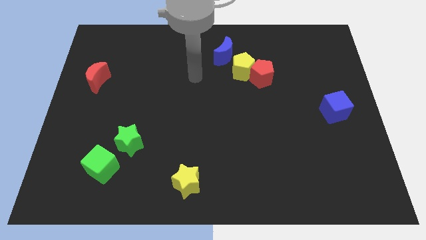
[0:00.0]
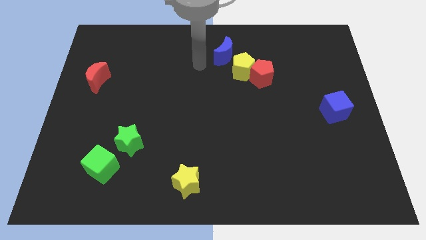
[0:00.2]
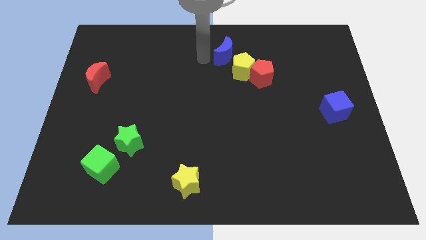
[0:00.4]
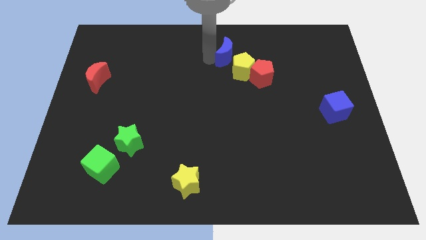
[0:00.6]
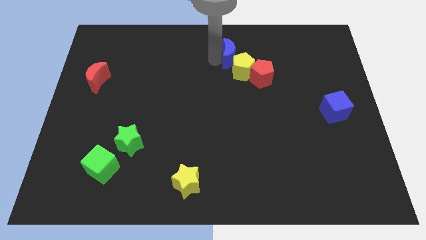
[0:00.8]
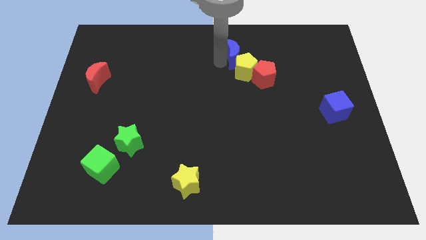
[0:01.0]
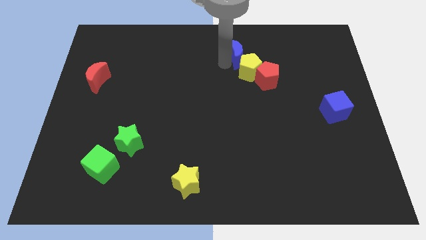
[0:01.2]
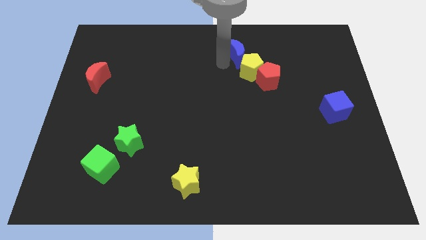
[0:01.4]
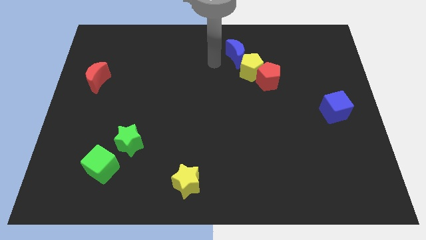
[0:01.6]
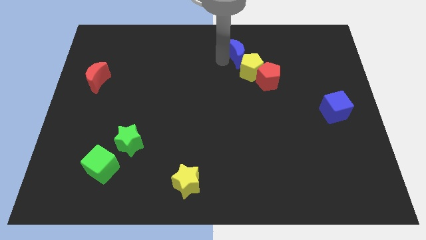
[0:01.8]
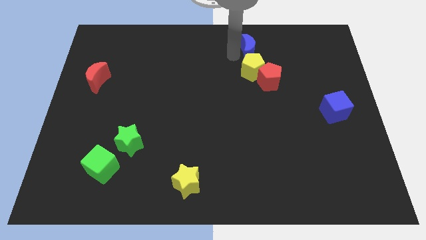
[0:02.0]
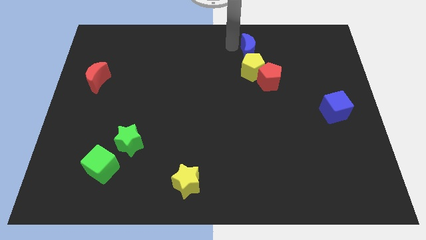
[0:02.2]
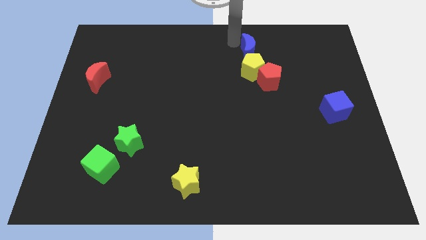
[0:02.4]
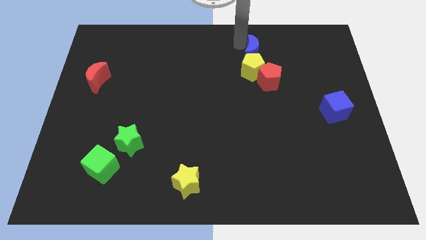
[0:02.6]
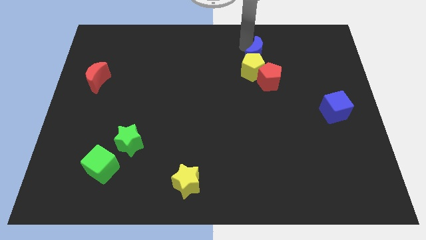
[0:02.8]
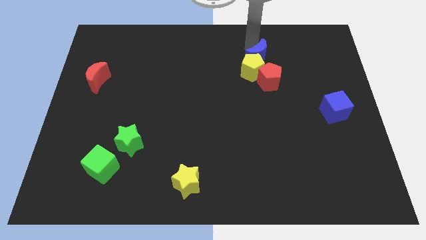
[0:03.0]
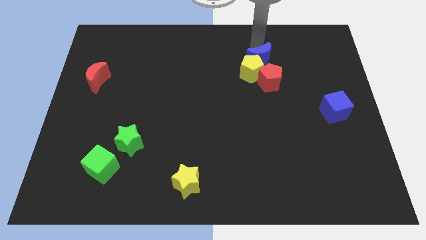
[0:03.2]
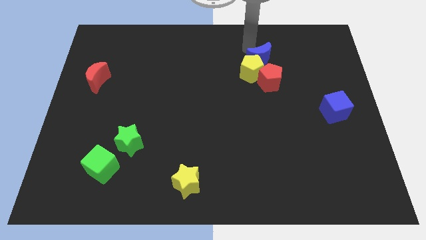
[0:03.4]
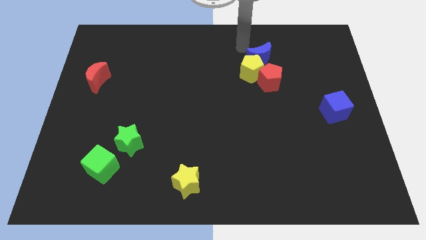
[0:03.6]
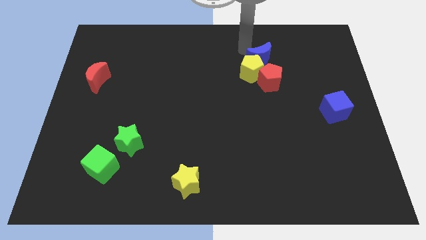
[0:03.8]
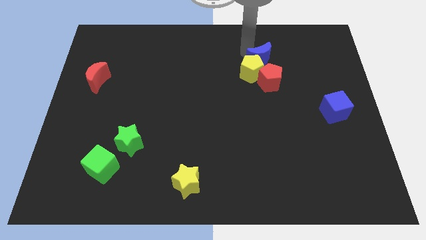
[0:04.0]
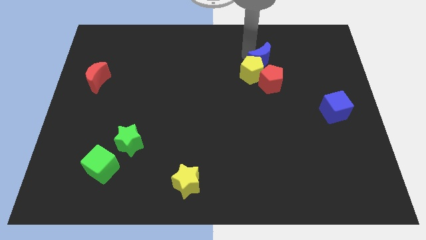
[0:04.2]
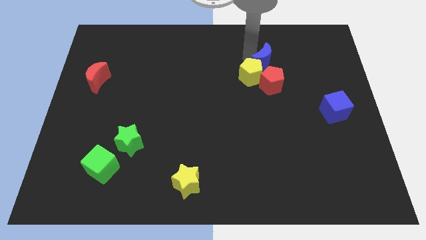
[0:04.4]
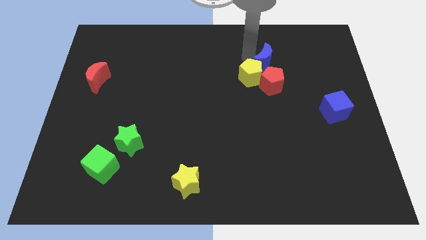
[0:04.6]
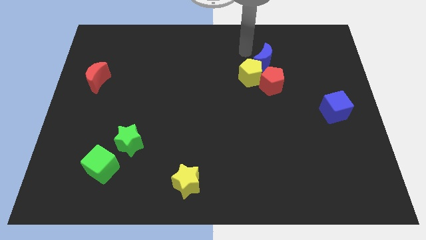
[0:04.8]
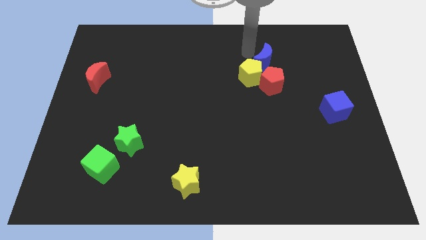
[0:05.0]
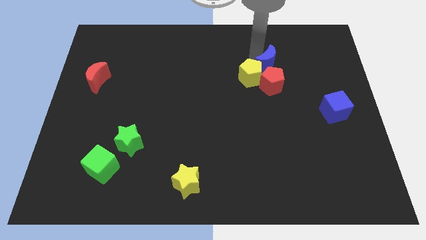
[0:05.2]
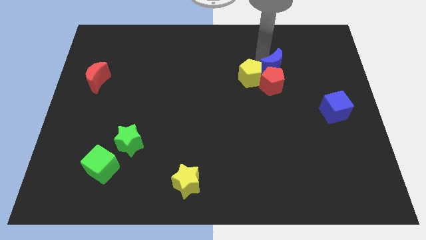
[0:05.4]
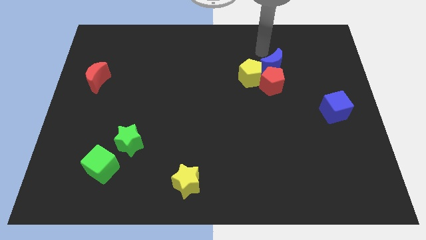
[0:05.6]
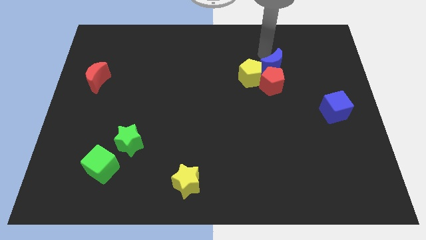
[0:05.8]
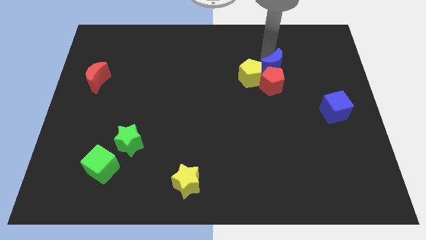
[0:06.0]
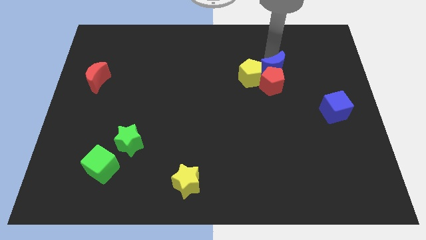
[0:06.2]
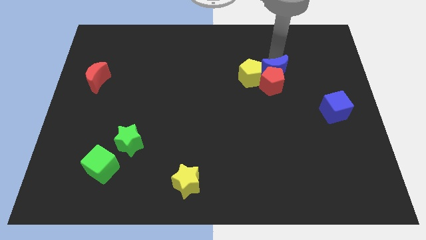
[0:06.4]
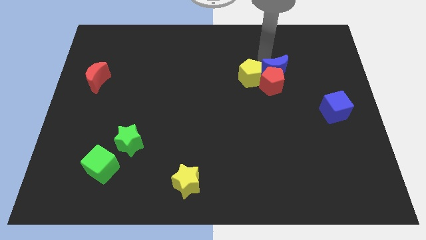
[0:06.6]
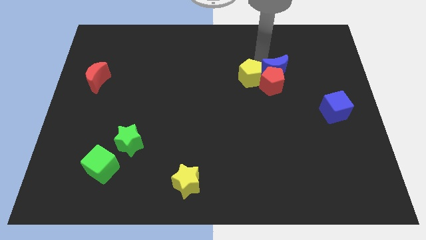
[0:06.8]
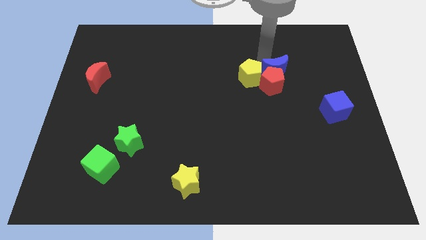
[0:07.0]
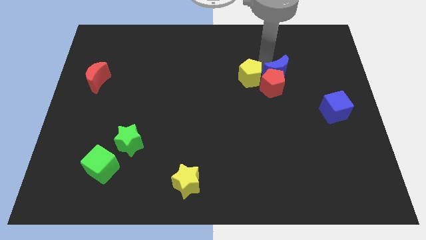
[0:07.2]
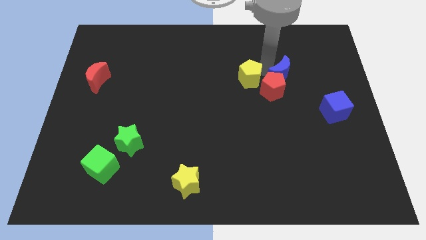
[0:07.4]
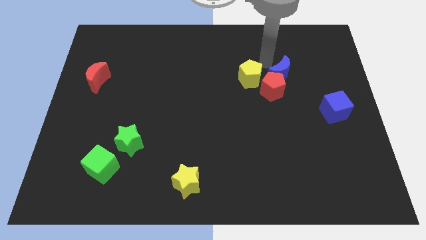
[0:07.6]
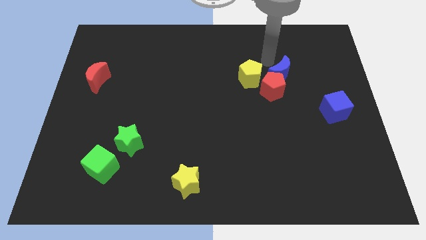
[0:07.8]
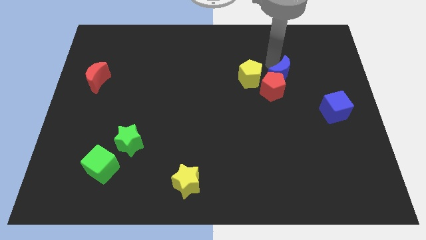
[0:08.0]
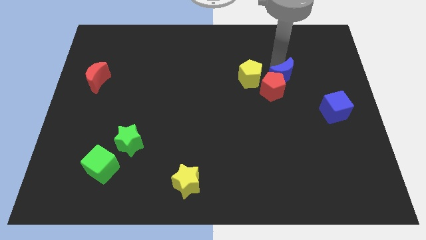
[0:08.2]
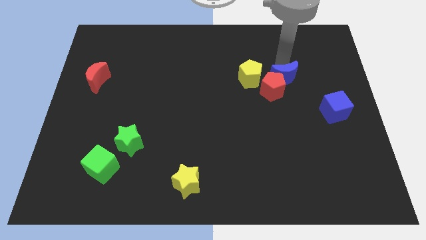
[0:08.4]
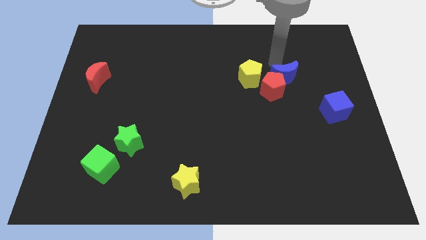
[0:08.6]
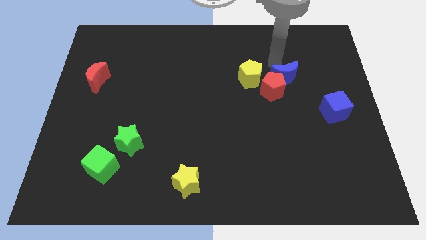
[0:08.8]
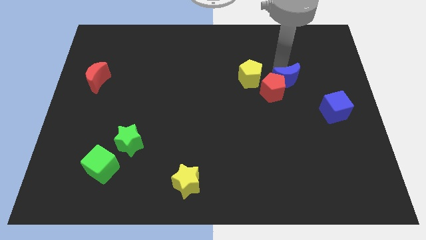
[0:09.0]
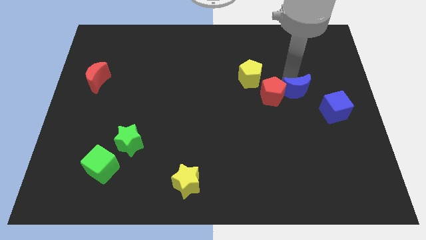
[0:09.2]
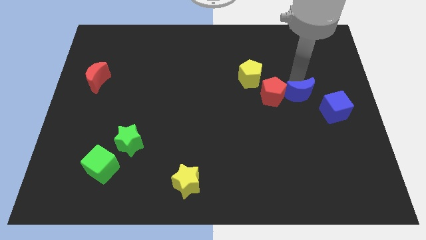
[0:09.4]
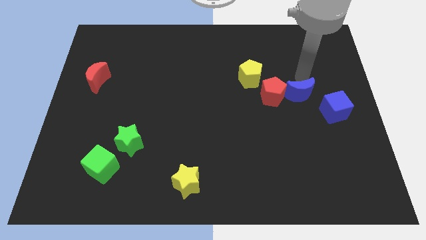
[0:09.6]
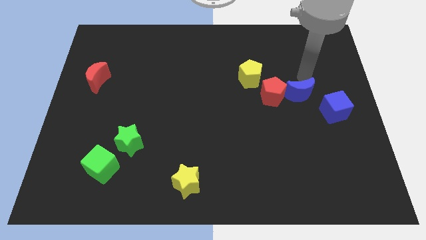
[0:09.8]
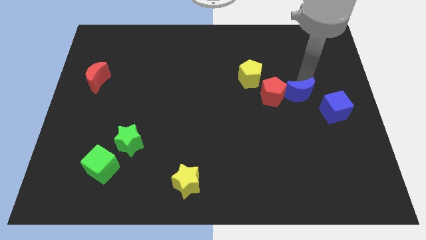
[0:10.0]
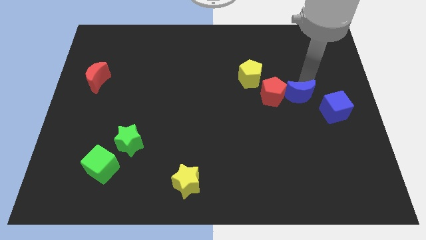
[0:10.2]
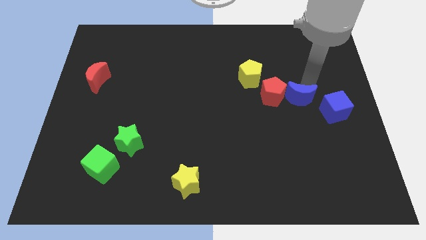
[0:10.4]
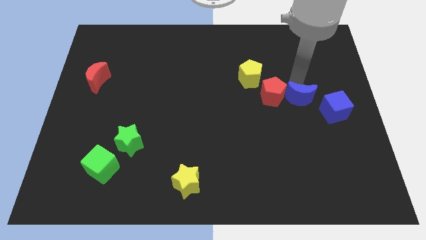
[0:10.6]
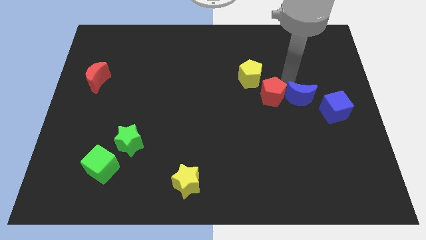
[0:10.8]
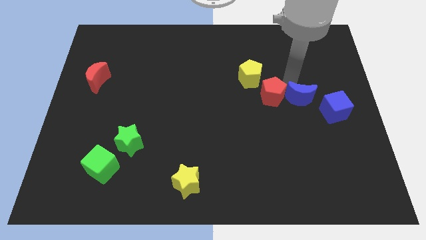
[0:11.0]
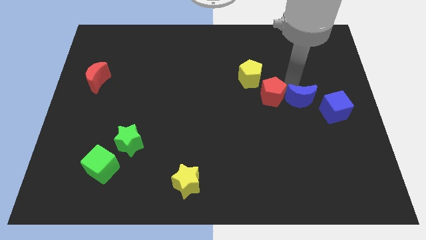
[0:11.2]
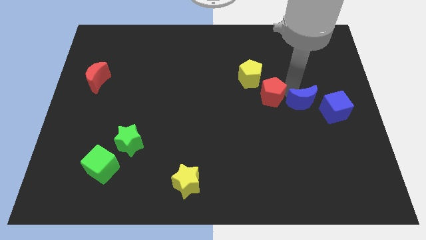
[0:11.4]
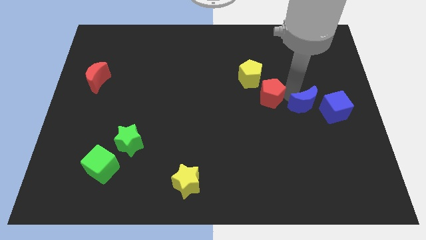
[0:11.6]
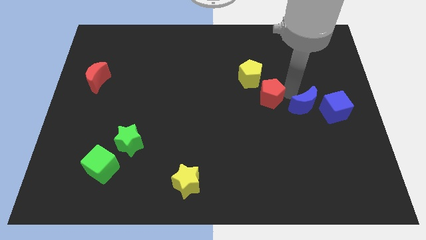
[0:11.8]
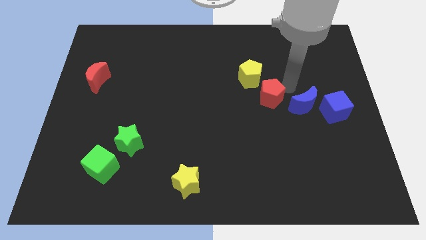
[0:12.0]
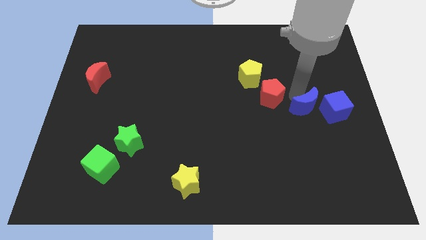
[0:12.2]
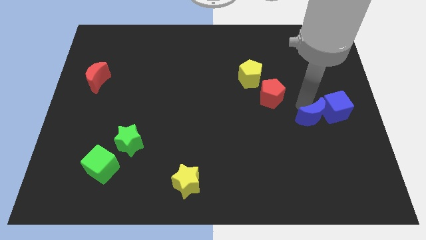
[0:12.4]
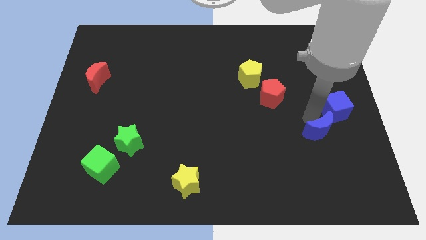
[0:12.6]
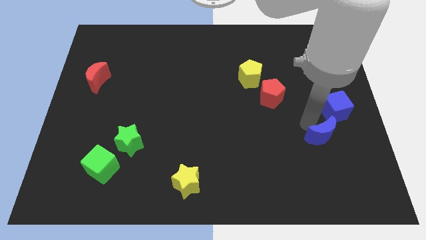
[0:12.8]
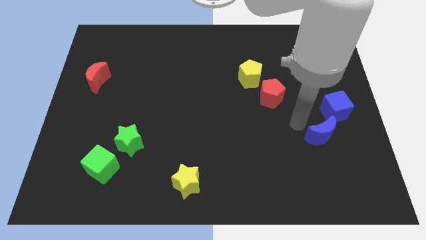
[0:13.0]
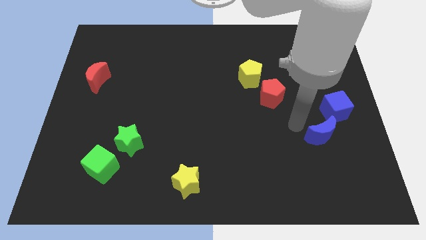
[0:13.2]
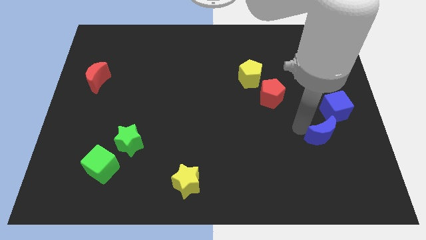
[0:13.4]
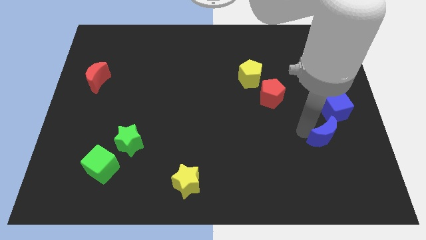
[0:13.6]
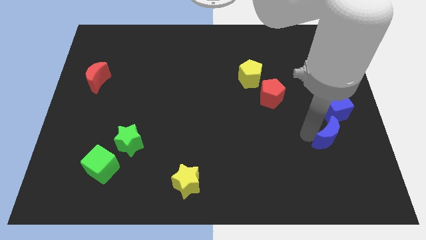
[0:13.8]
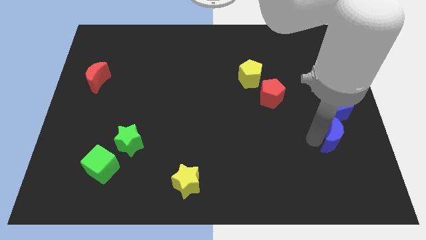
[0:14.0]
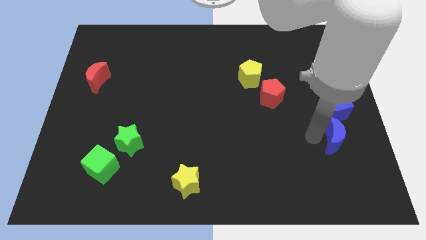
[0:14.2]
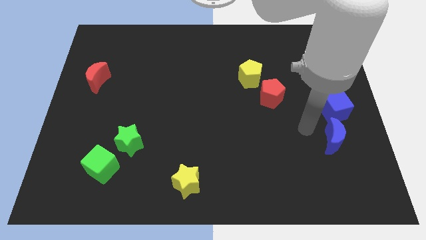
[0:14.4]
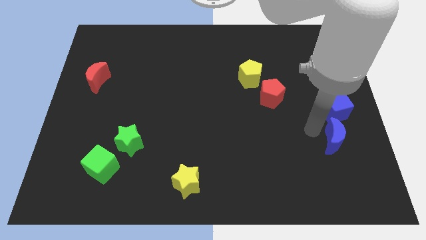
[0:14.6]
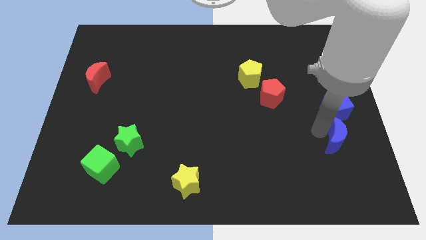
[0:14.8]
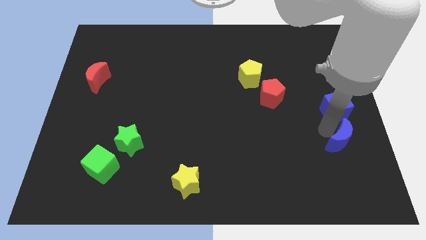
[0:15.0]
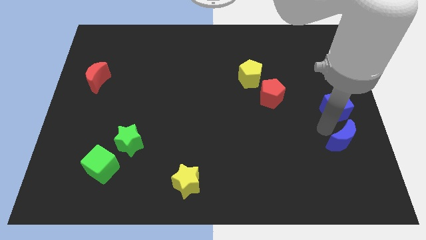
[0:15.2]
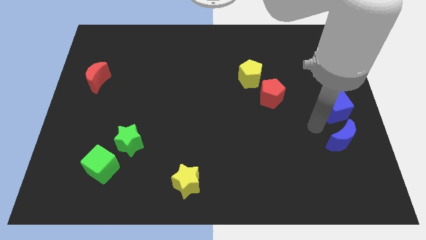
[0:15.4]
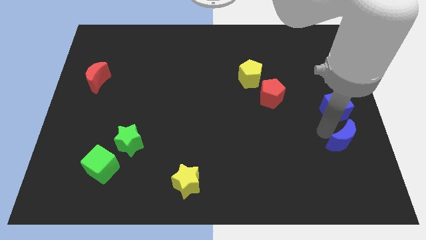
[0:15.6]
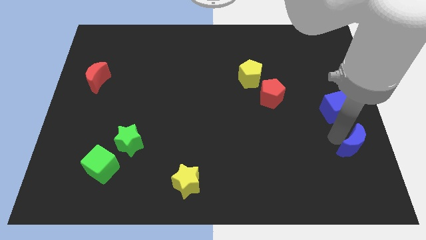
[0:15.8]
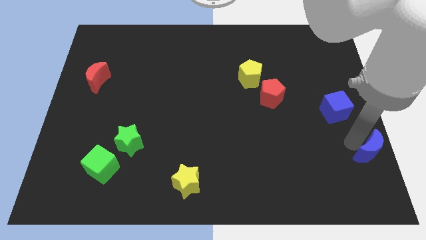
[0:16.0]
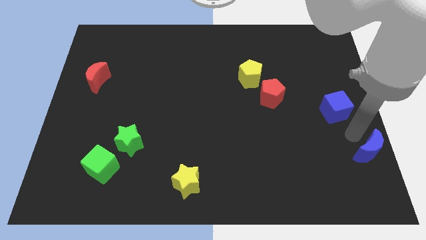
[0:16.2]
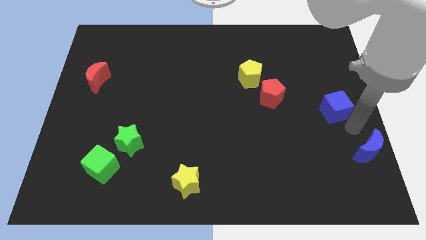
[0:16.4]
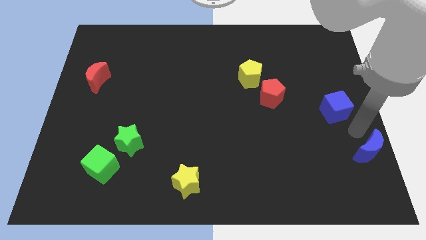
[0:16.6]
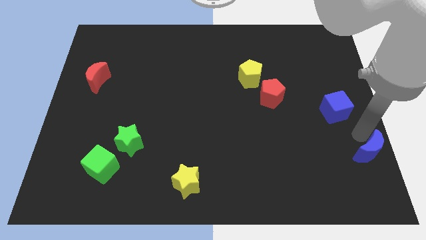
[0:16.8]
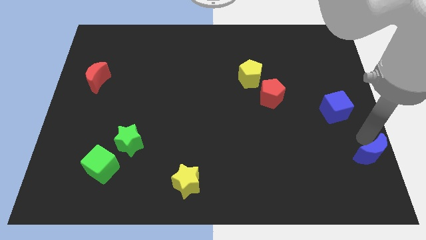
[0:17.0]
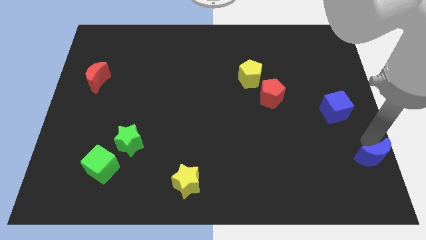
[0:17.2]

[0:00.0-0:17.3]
push the blue moon to the bottom right
